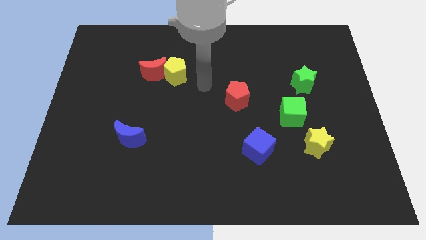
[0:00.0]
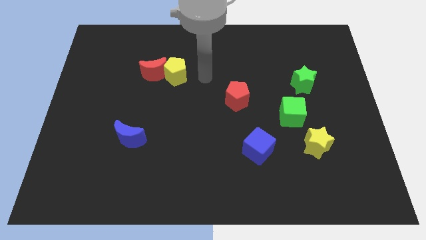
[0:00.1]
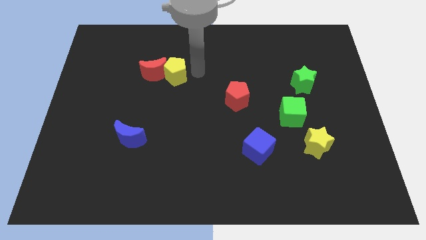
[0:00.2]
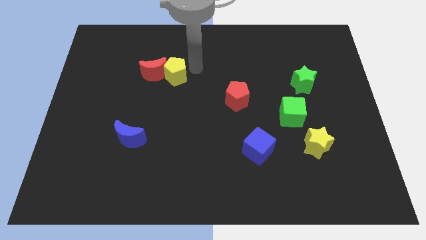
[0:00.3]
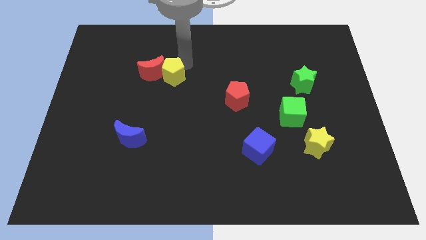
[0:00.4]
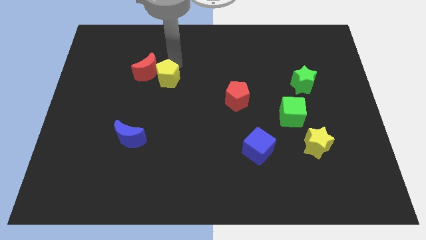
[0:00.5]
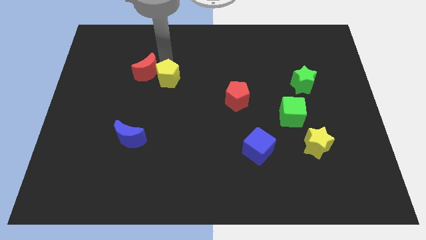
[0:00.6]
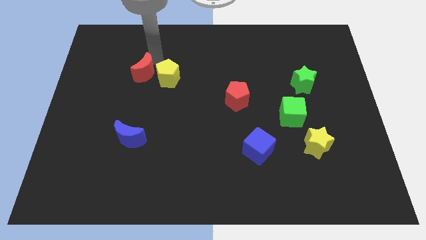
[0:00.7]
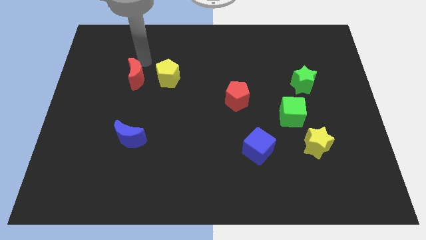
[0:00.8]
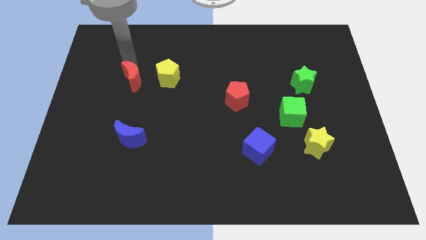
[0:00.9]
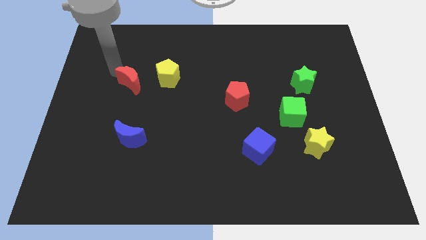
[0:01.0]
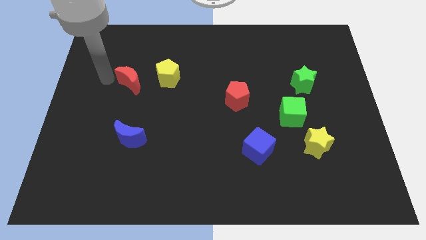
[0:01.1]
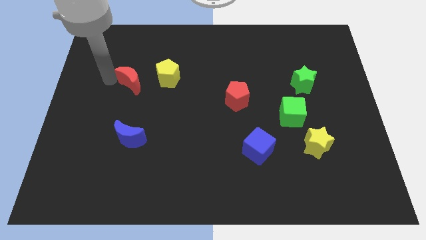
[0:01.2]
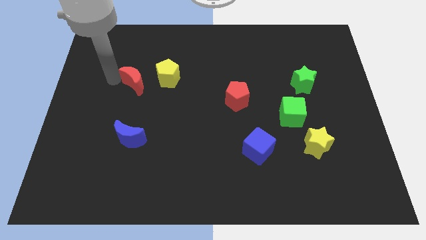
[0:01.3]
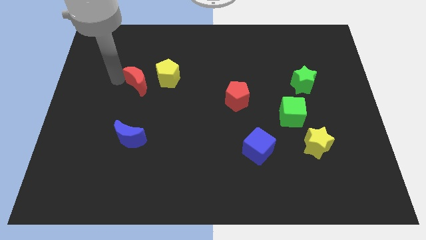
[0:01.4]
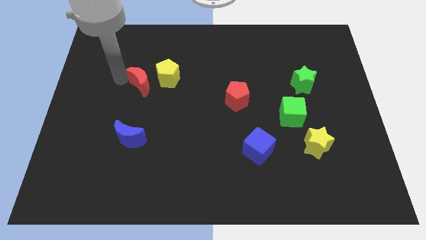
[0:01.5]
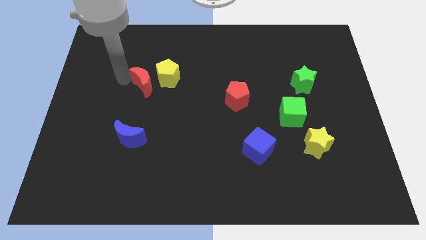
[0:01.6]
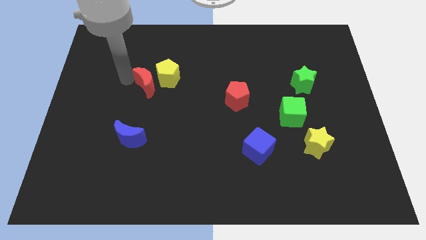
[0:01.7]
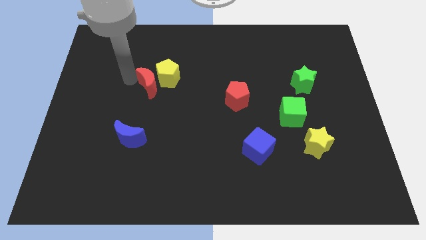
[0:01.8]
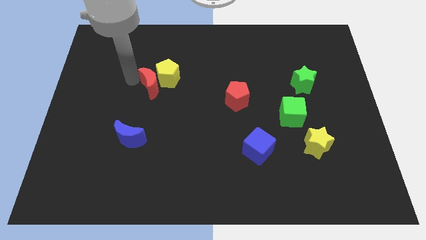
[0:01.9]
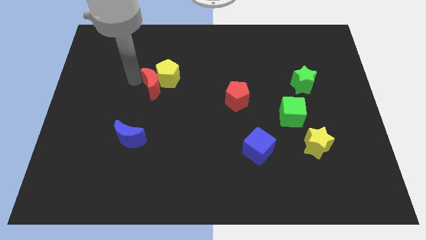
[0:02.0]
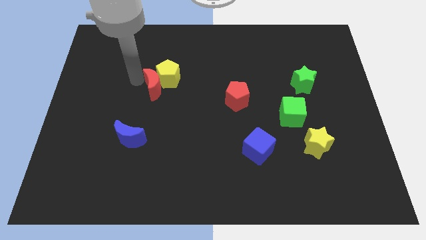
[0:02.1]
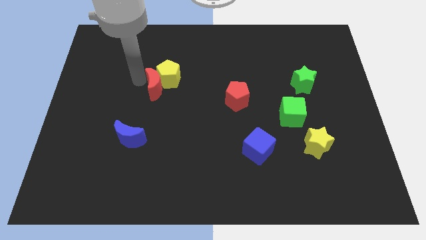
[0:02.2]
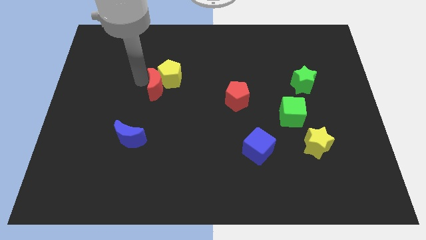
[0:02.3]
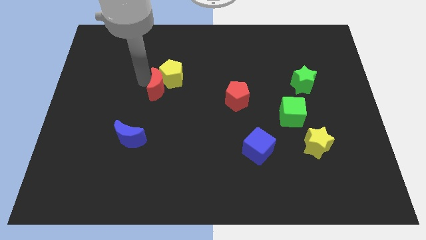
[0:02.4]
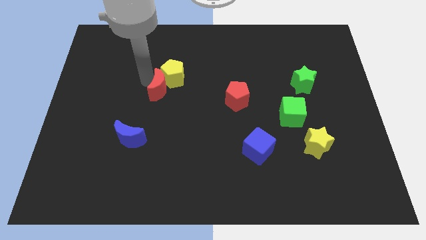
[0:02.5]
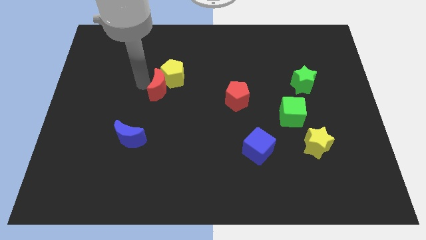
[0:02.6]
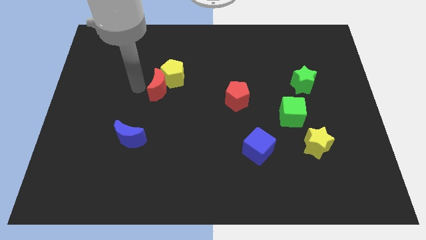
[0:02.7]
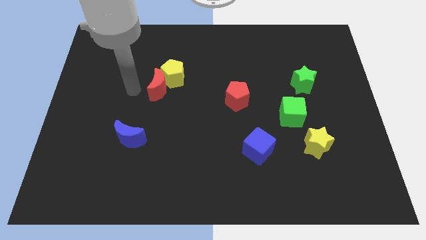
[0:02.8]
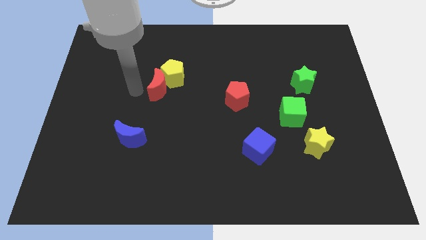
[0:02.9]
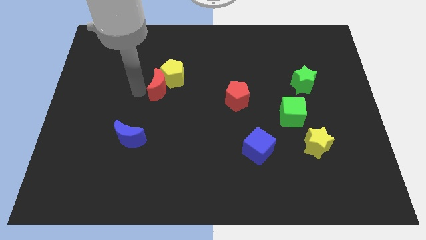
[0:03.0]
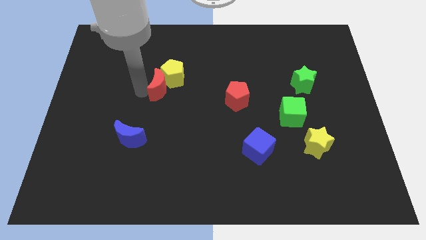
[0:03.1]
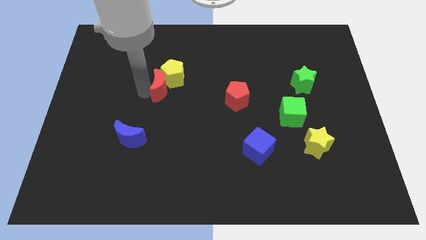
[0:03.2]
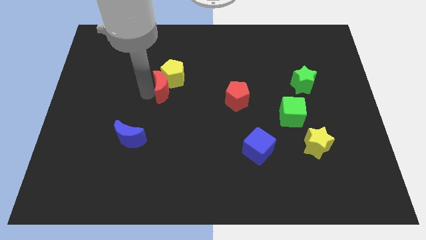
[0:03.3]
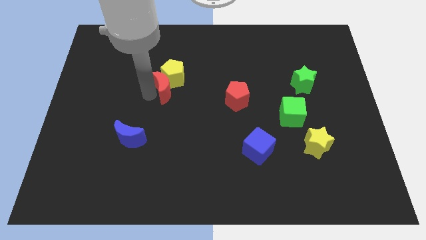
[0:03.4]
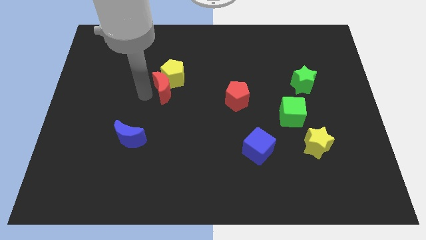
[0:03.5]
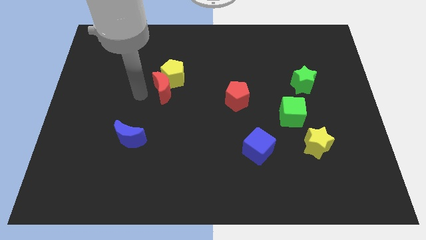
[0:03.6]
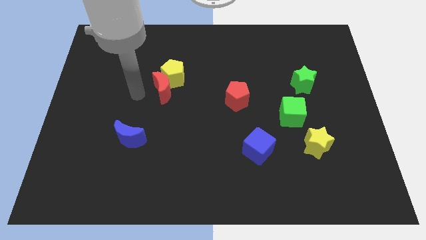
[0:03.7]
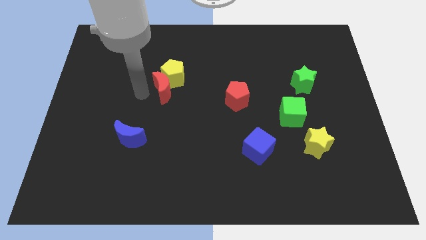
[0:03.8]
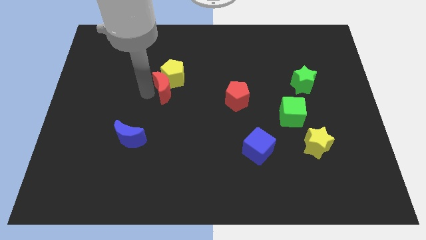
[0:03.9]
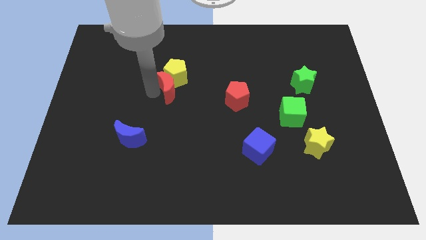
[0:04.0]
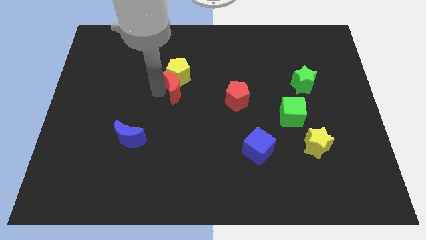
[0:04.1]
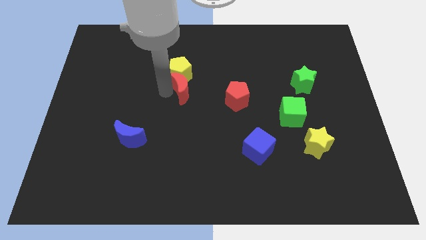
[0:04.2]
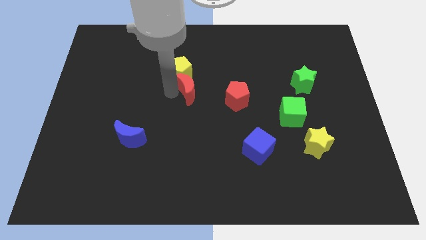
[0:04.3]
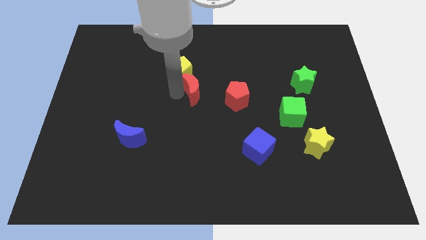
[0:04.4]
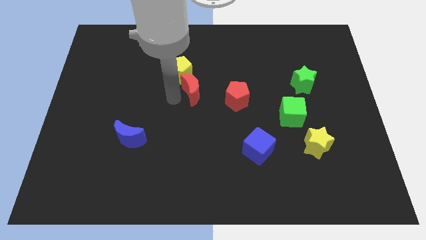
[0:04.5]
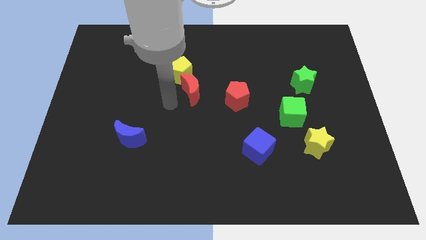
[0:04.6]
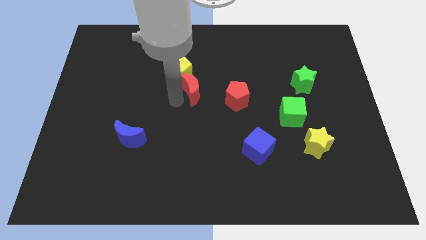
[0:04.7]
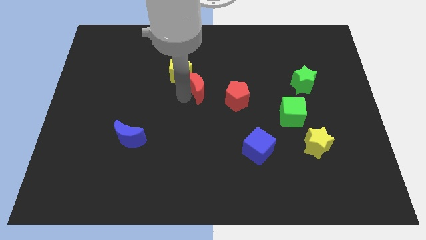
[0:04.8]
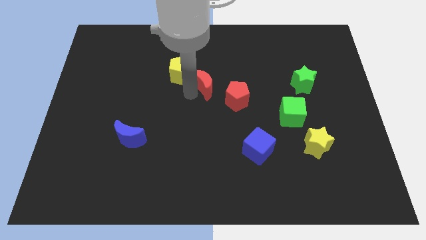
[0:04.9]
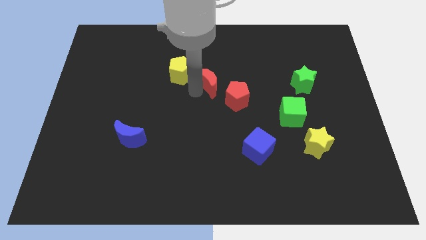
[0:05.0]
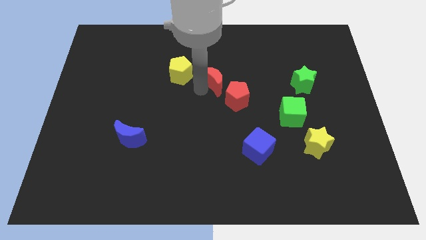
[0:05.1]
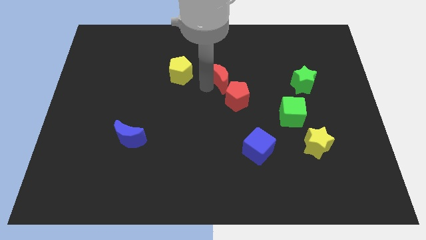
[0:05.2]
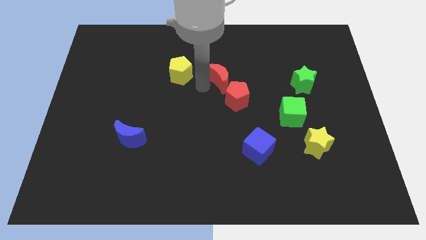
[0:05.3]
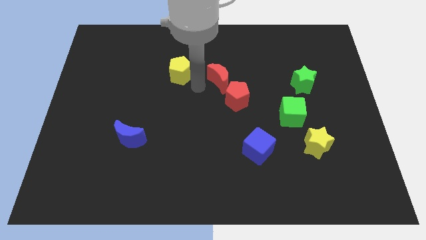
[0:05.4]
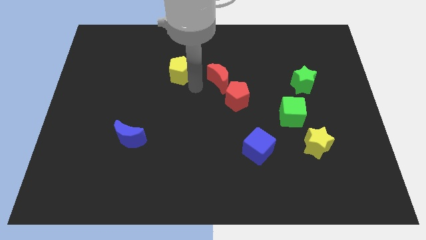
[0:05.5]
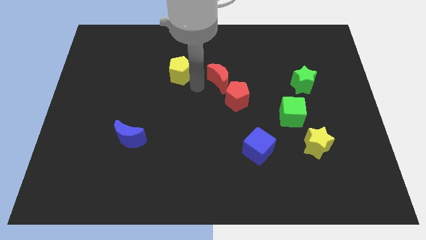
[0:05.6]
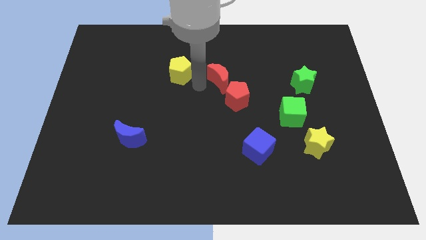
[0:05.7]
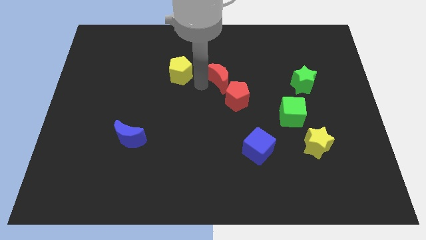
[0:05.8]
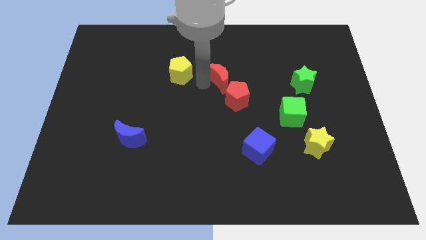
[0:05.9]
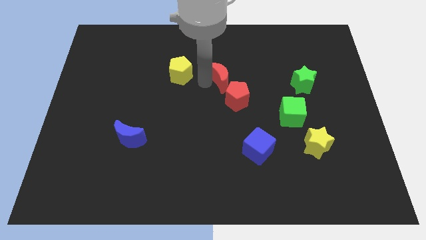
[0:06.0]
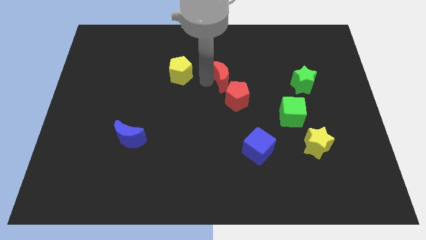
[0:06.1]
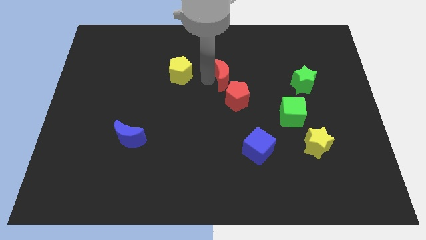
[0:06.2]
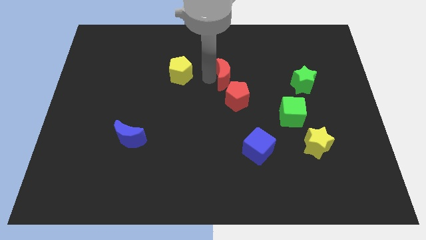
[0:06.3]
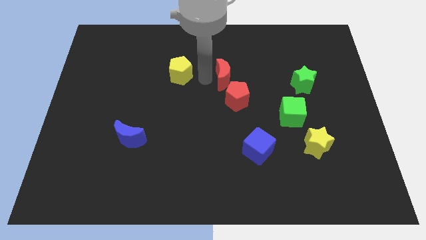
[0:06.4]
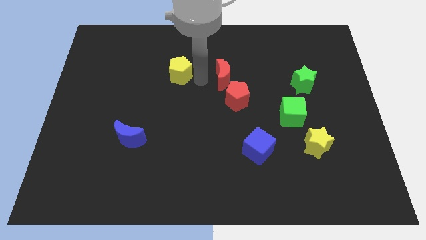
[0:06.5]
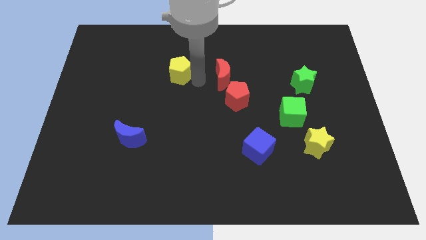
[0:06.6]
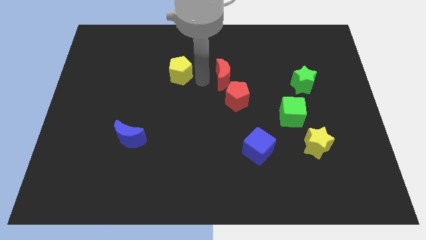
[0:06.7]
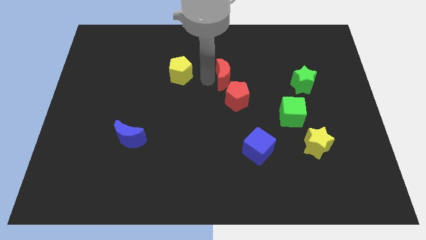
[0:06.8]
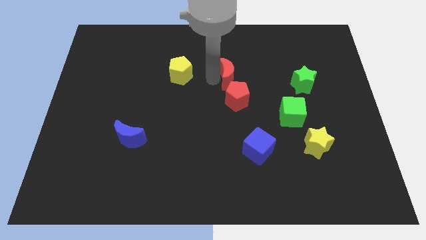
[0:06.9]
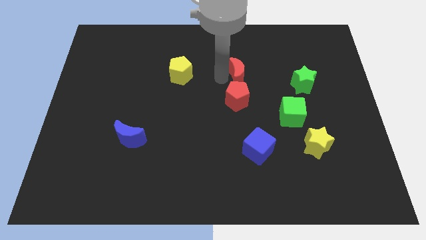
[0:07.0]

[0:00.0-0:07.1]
push the red moon right

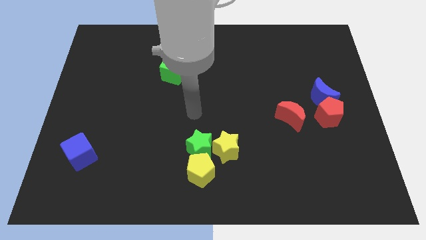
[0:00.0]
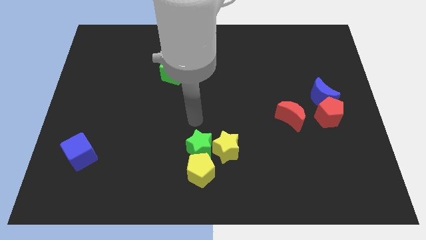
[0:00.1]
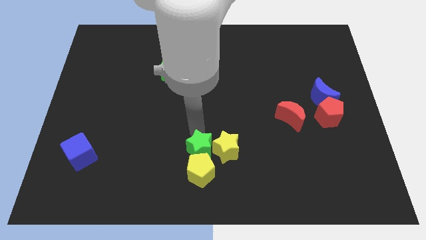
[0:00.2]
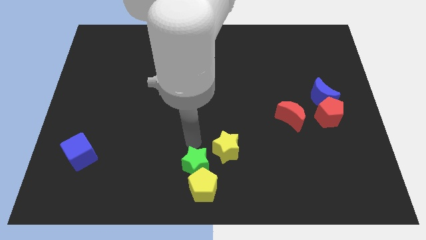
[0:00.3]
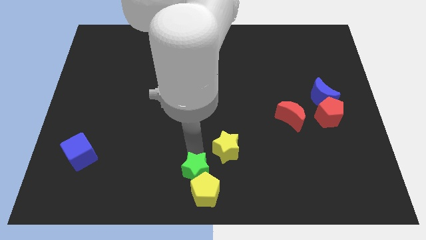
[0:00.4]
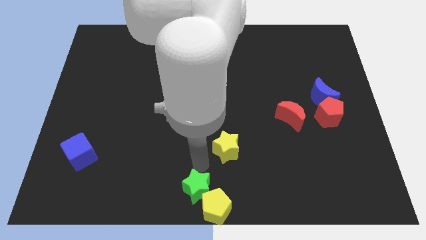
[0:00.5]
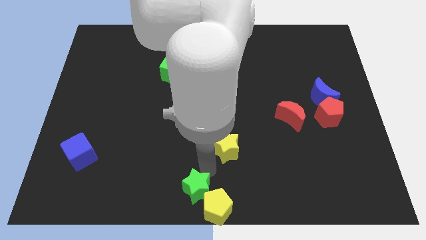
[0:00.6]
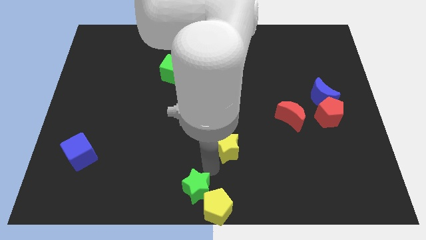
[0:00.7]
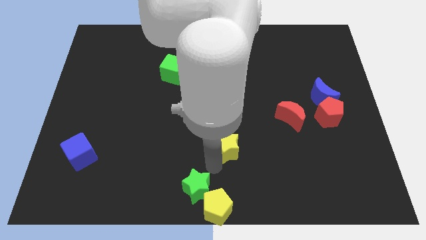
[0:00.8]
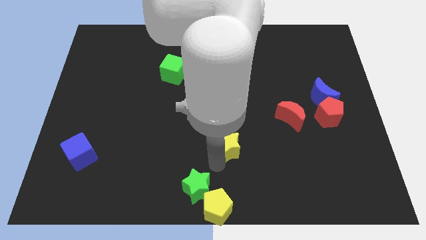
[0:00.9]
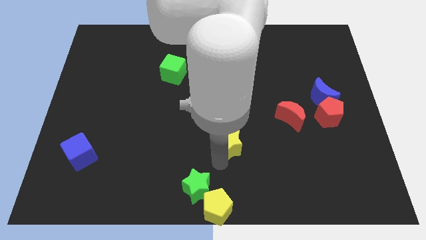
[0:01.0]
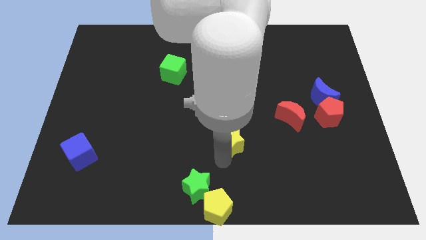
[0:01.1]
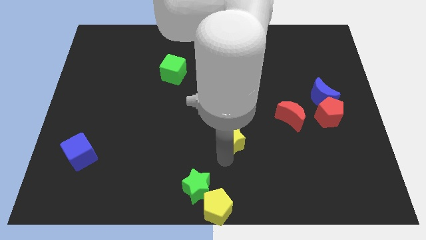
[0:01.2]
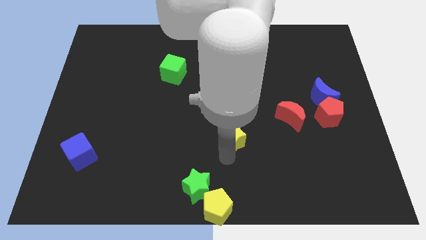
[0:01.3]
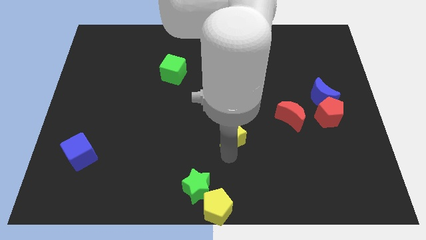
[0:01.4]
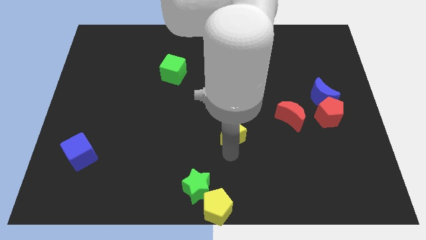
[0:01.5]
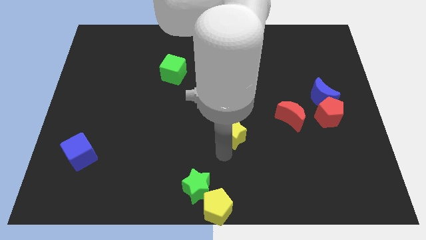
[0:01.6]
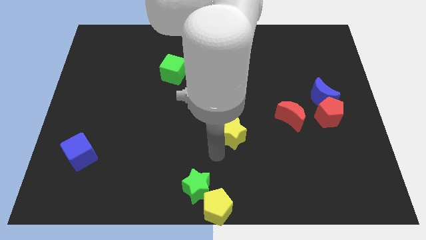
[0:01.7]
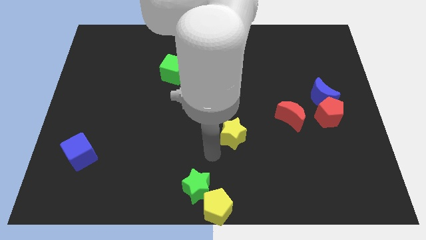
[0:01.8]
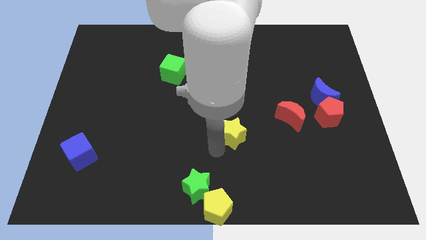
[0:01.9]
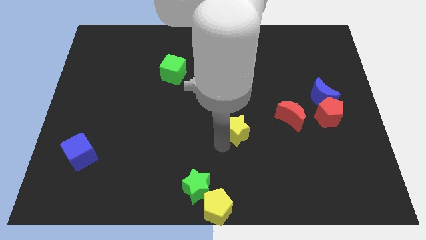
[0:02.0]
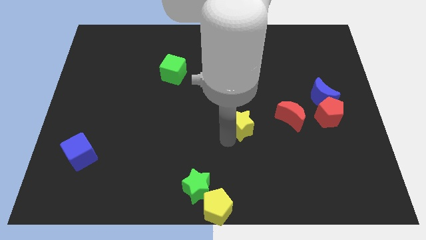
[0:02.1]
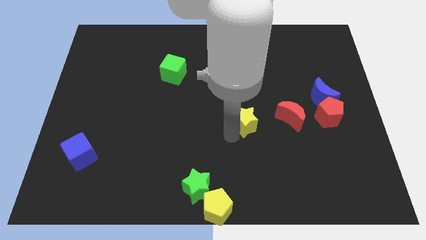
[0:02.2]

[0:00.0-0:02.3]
slightly move the yellow star up and to the right diagonally
